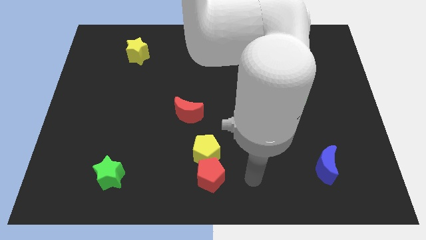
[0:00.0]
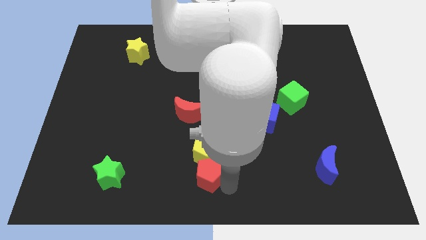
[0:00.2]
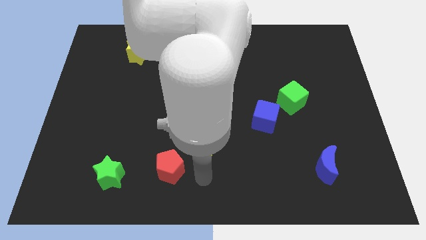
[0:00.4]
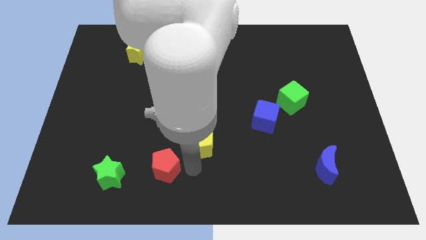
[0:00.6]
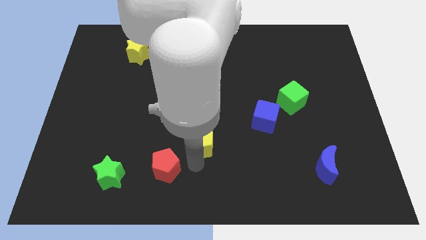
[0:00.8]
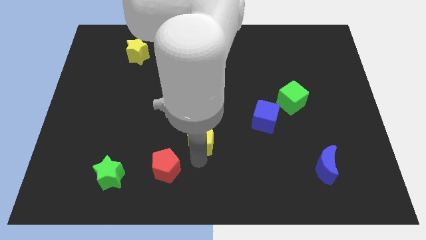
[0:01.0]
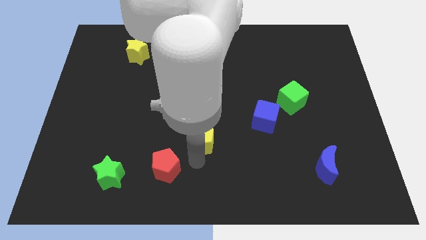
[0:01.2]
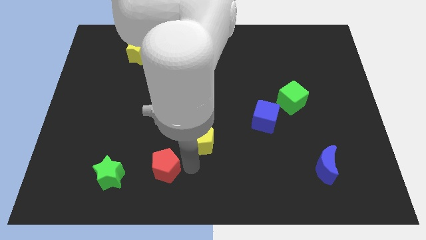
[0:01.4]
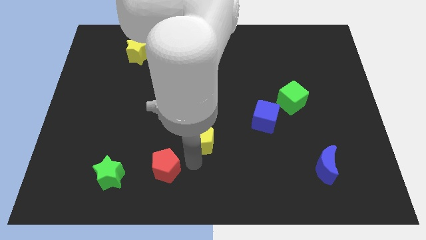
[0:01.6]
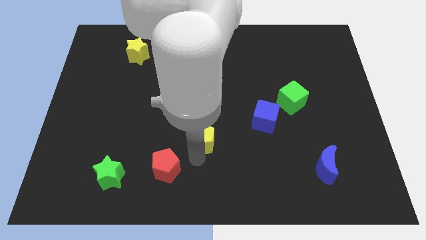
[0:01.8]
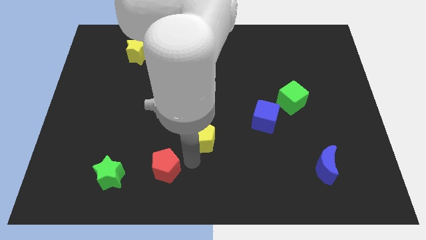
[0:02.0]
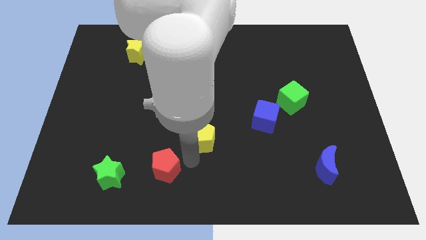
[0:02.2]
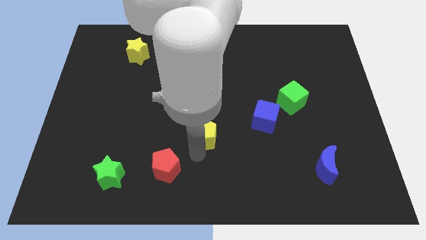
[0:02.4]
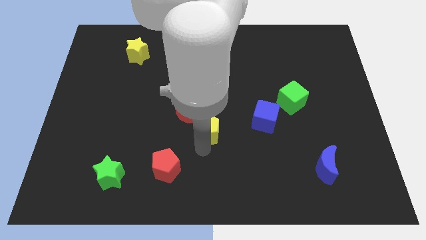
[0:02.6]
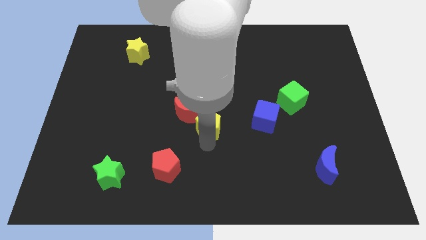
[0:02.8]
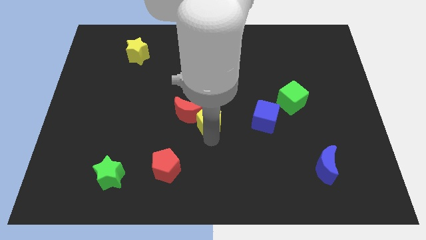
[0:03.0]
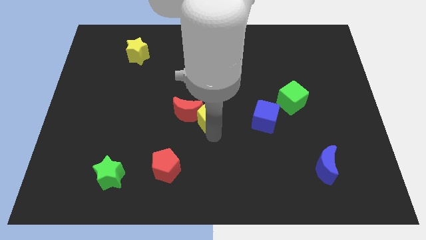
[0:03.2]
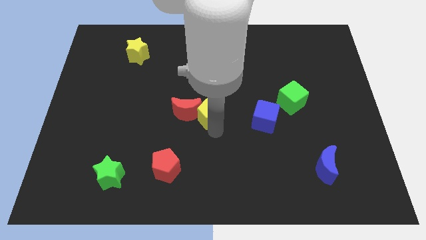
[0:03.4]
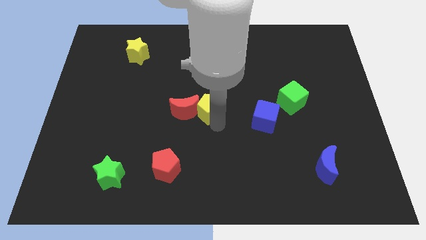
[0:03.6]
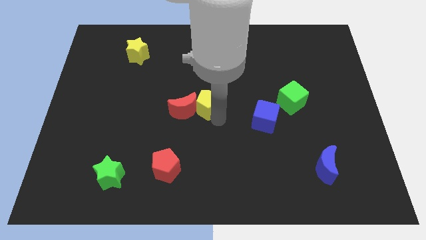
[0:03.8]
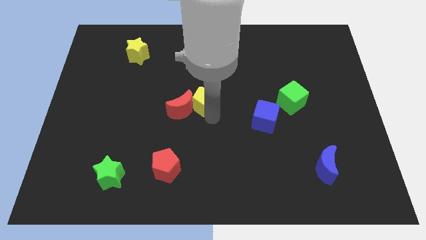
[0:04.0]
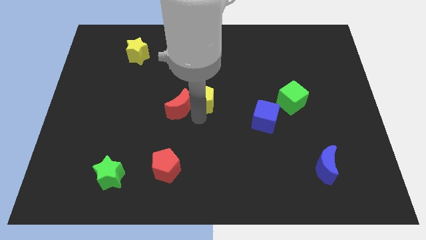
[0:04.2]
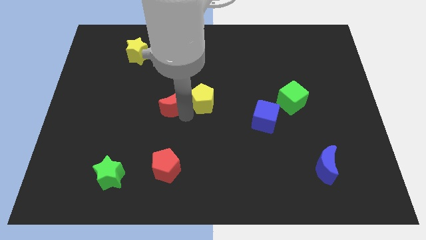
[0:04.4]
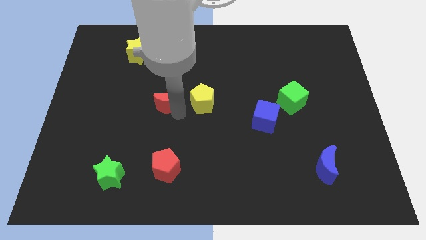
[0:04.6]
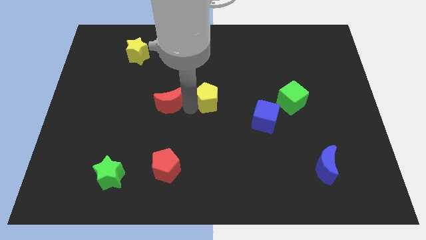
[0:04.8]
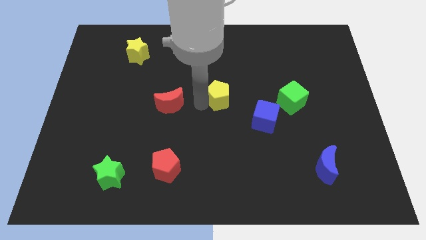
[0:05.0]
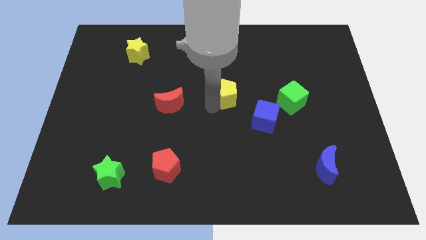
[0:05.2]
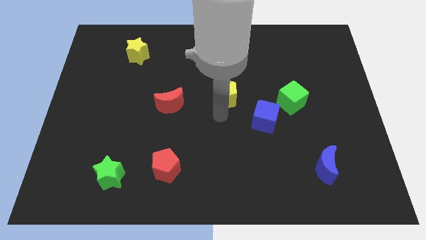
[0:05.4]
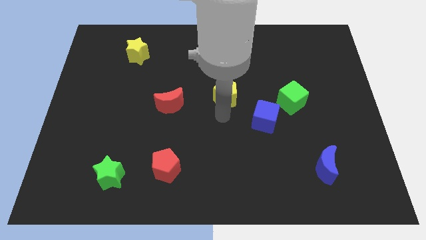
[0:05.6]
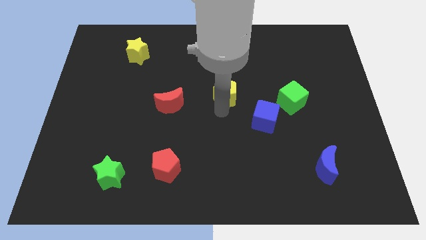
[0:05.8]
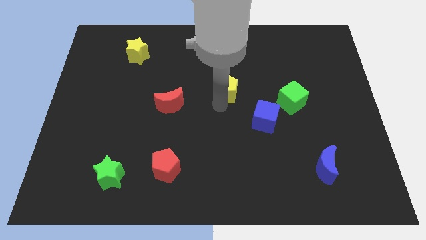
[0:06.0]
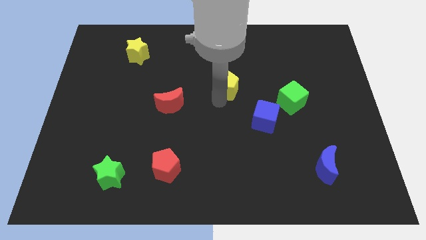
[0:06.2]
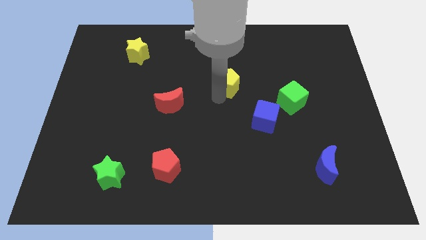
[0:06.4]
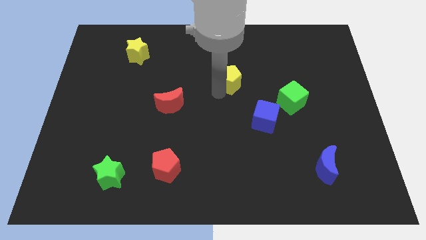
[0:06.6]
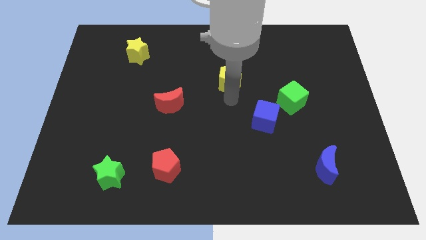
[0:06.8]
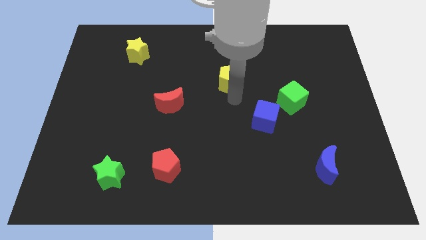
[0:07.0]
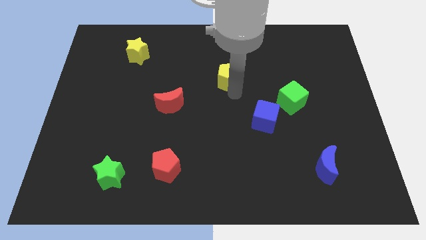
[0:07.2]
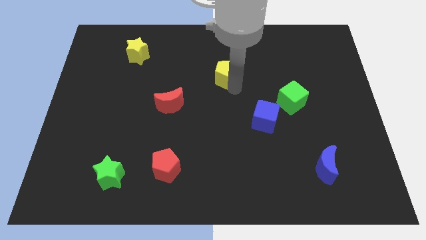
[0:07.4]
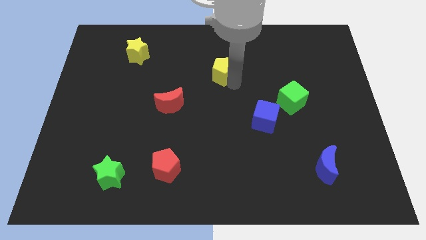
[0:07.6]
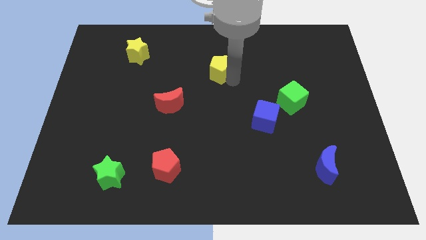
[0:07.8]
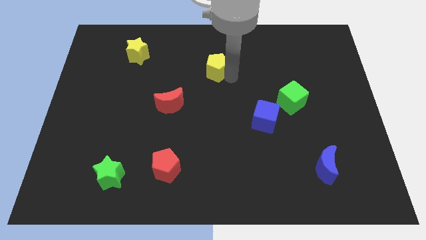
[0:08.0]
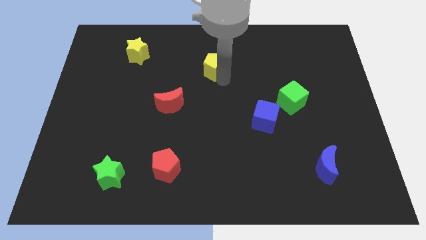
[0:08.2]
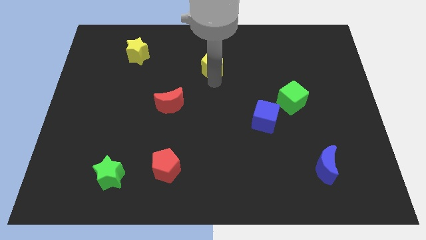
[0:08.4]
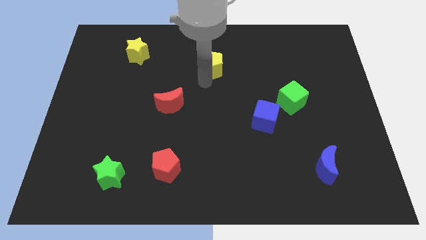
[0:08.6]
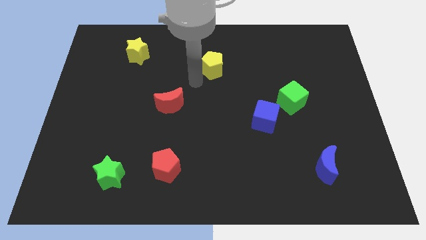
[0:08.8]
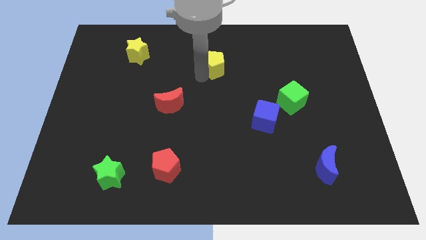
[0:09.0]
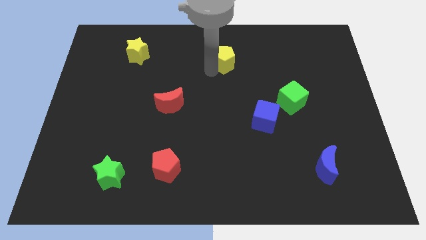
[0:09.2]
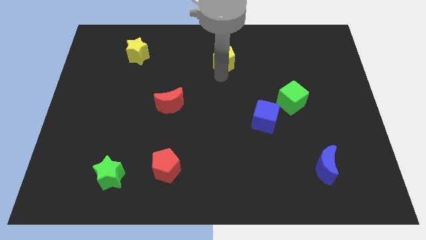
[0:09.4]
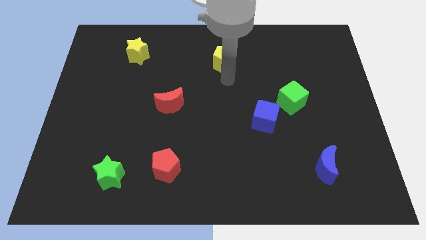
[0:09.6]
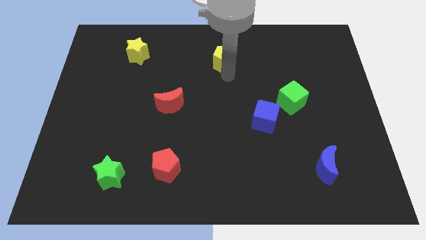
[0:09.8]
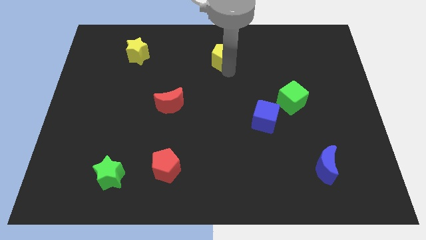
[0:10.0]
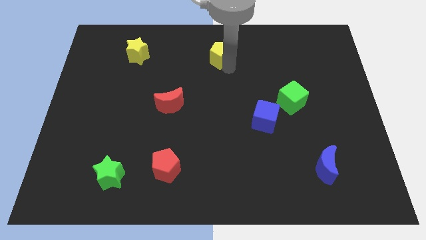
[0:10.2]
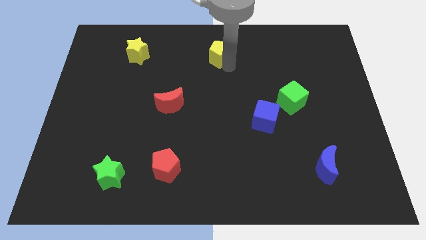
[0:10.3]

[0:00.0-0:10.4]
move the yellow pentagon to the top side

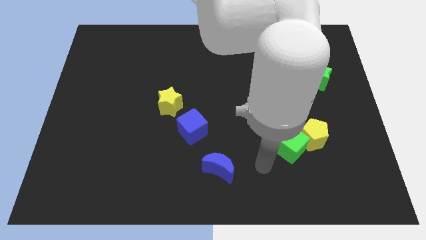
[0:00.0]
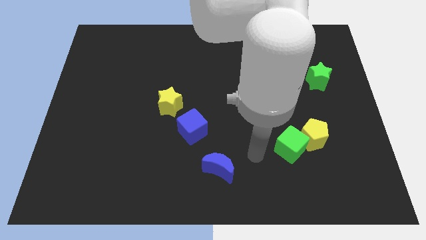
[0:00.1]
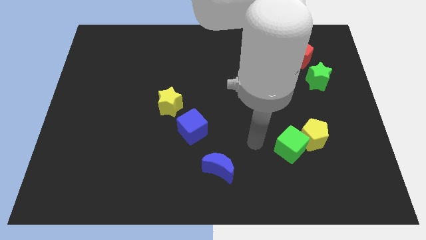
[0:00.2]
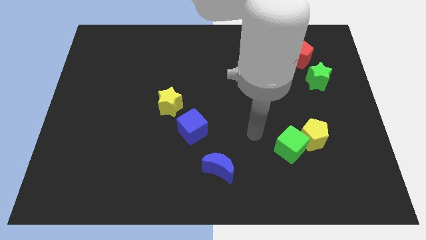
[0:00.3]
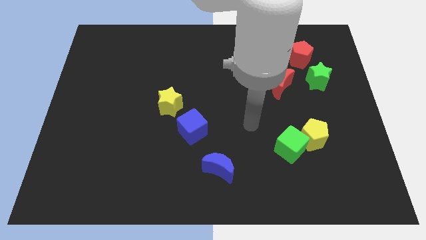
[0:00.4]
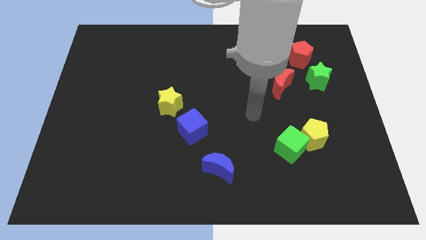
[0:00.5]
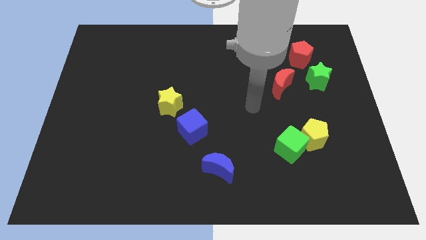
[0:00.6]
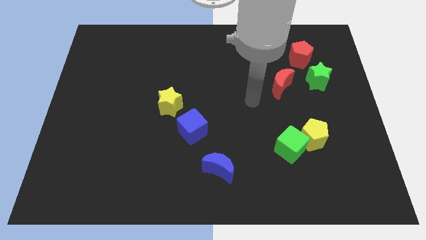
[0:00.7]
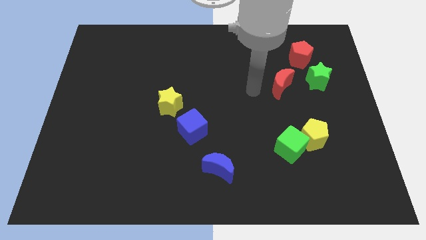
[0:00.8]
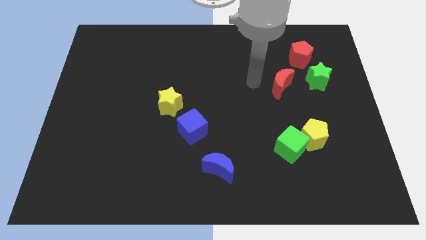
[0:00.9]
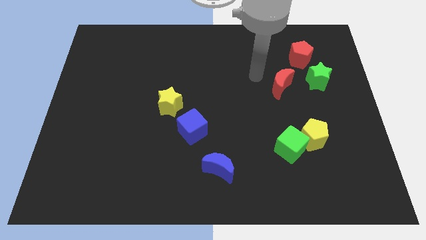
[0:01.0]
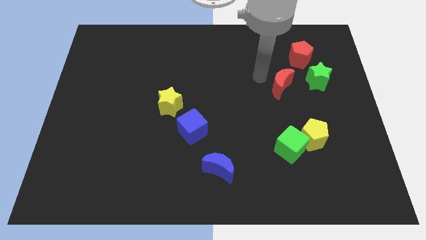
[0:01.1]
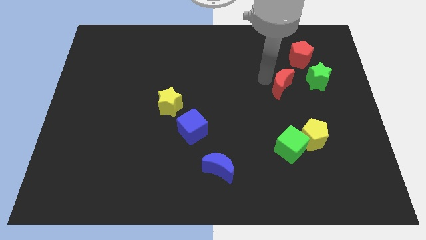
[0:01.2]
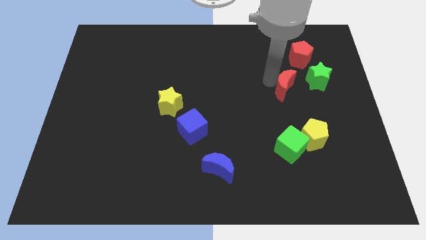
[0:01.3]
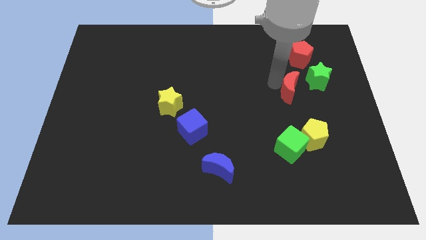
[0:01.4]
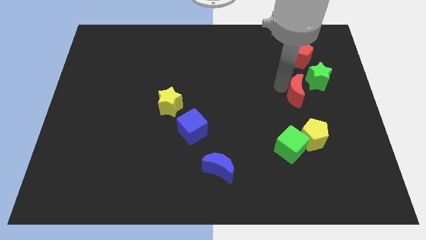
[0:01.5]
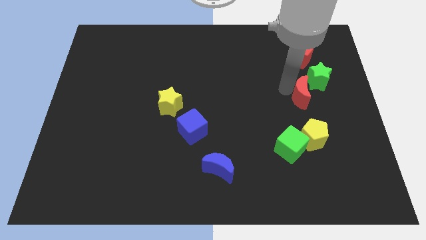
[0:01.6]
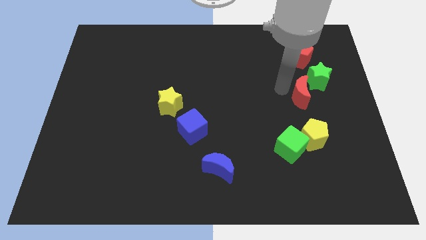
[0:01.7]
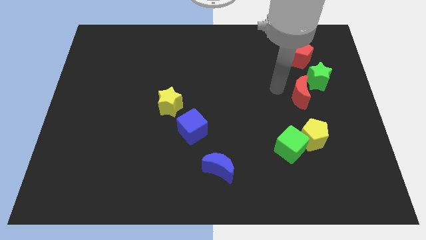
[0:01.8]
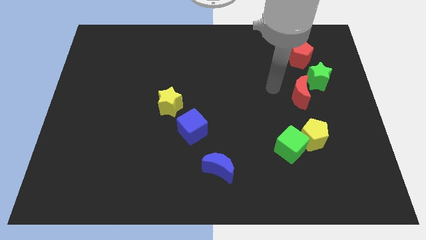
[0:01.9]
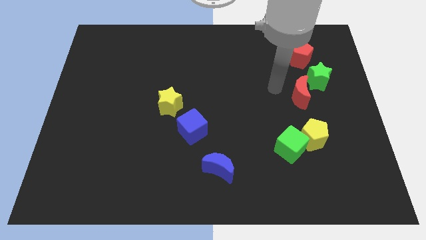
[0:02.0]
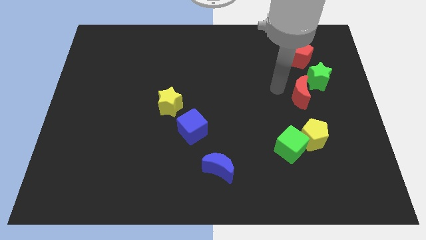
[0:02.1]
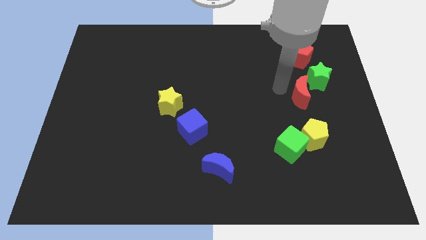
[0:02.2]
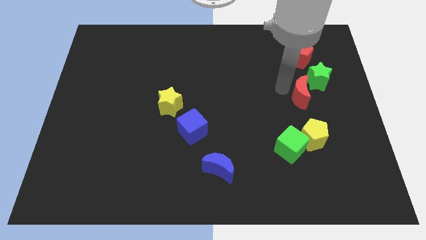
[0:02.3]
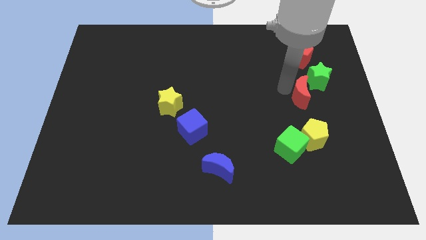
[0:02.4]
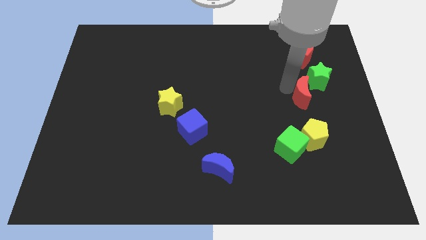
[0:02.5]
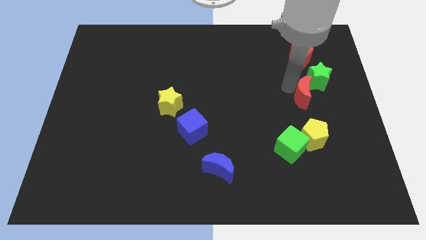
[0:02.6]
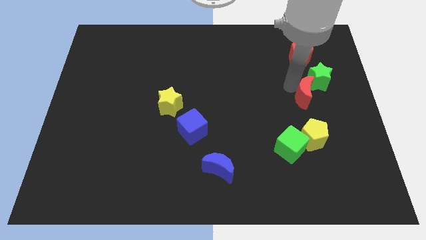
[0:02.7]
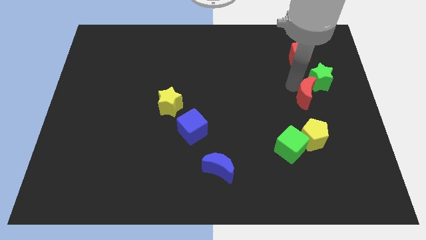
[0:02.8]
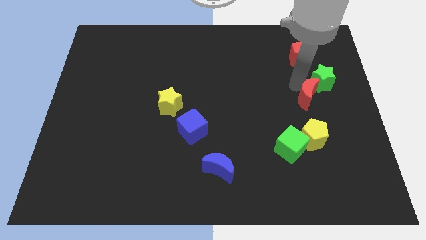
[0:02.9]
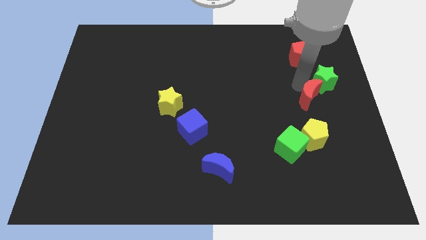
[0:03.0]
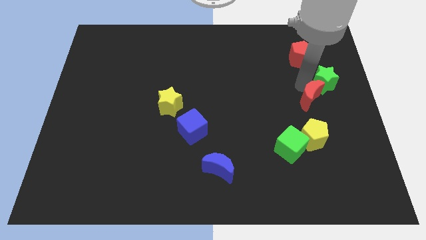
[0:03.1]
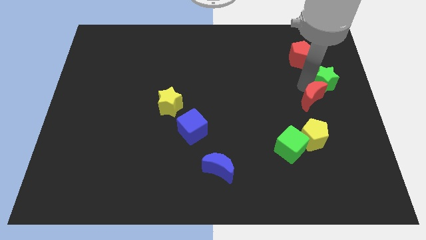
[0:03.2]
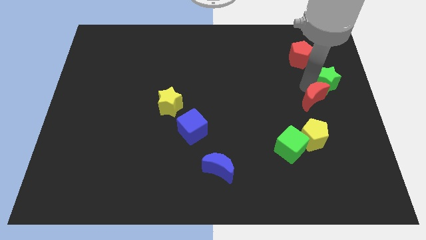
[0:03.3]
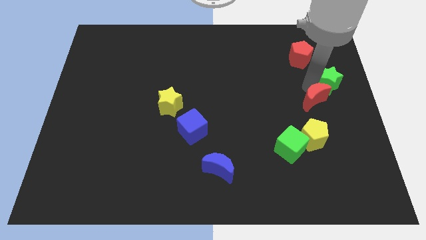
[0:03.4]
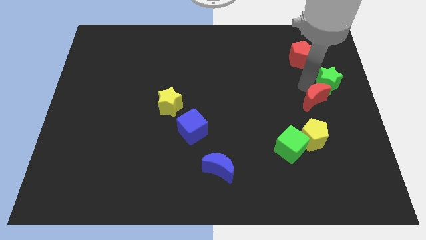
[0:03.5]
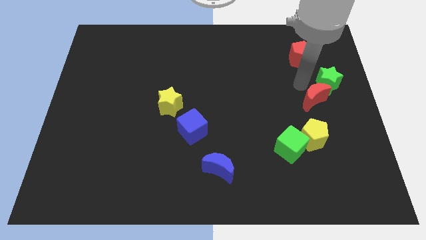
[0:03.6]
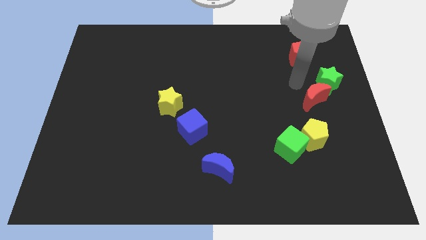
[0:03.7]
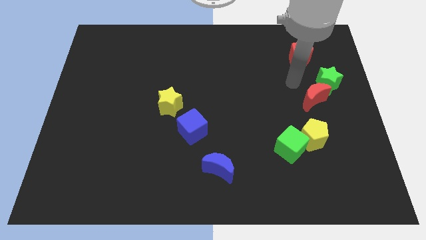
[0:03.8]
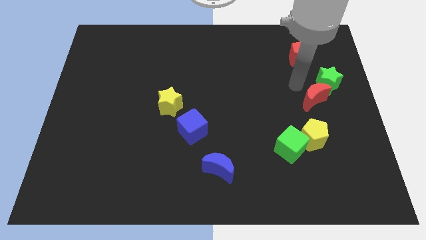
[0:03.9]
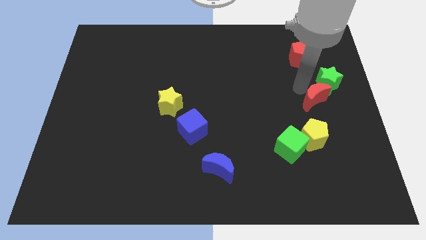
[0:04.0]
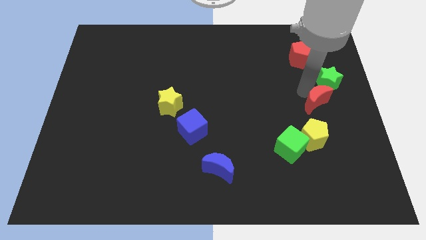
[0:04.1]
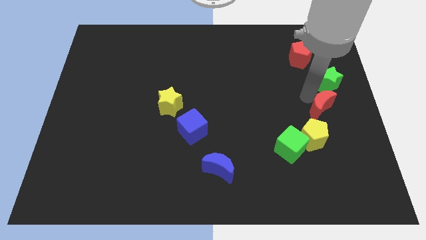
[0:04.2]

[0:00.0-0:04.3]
move the red moon to the center right
